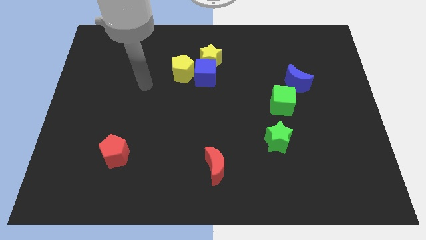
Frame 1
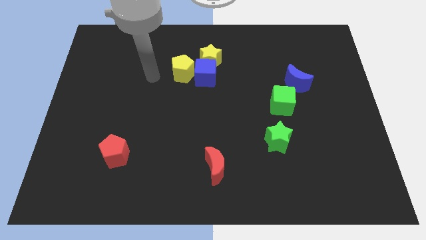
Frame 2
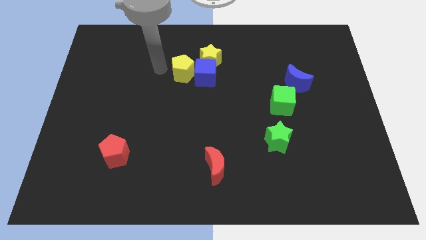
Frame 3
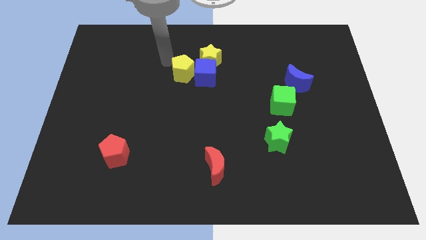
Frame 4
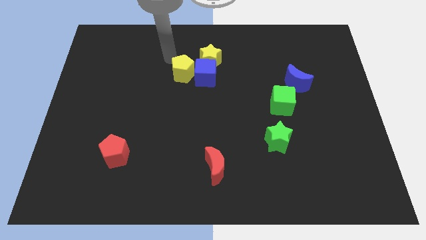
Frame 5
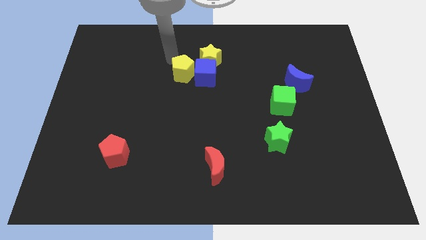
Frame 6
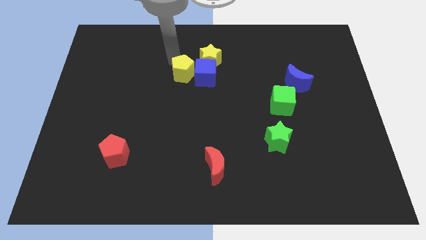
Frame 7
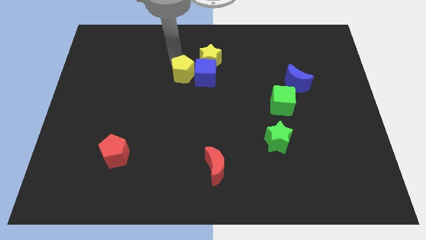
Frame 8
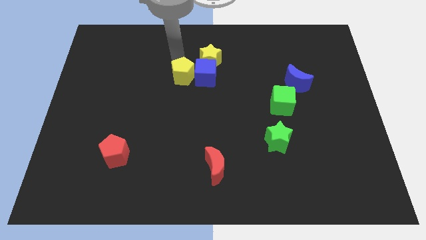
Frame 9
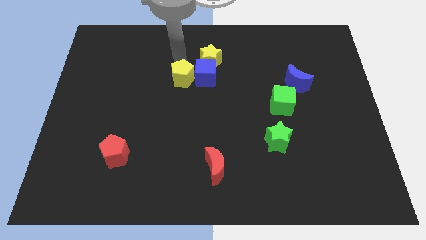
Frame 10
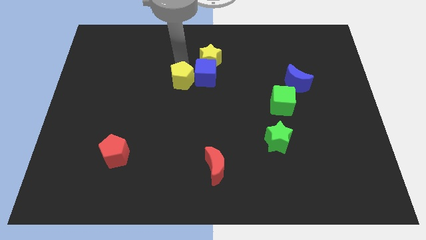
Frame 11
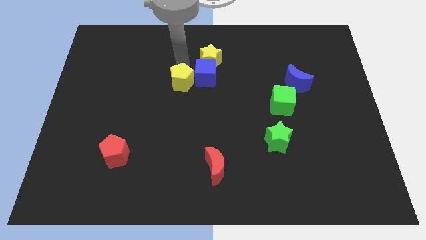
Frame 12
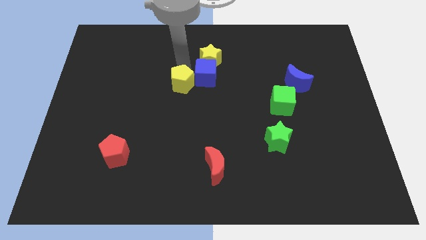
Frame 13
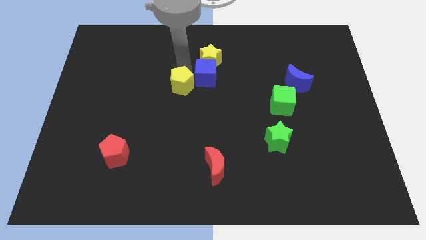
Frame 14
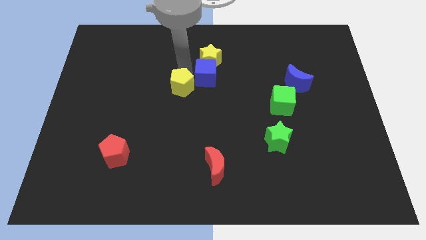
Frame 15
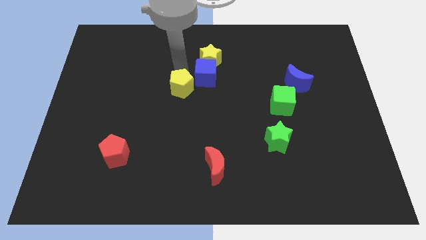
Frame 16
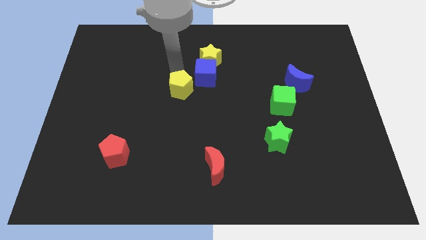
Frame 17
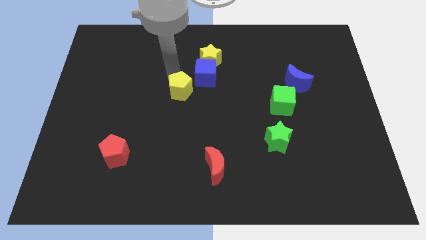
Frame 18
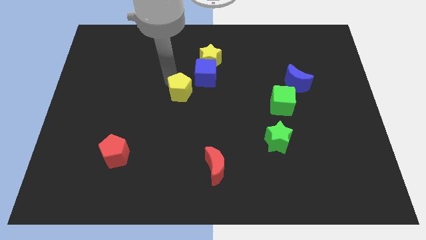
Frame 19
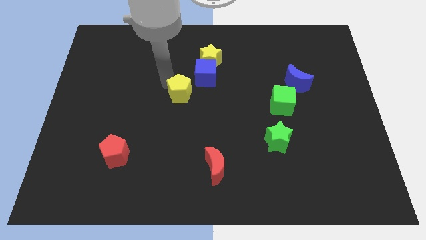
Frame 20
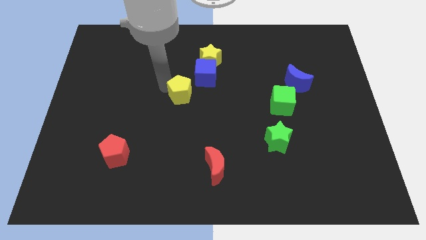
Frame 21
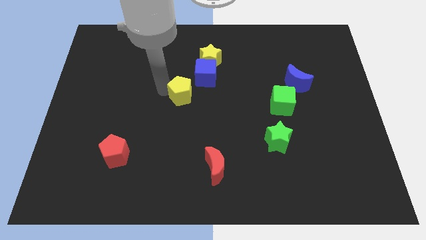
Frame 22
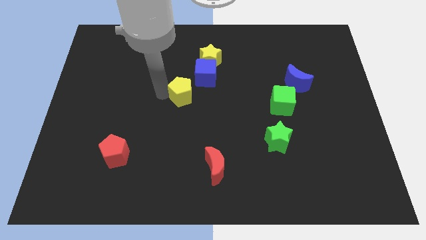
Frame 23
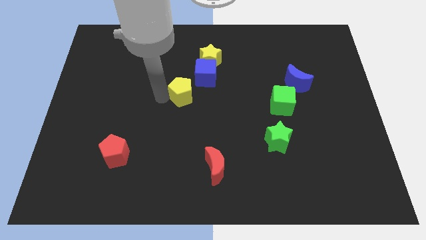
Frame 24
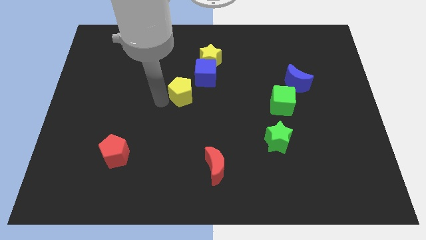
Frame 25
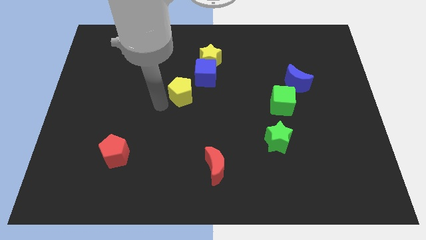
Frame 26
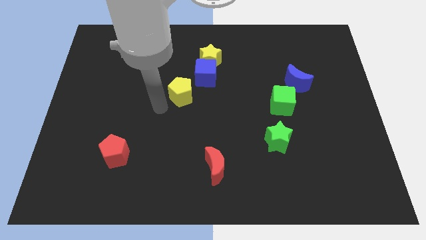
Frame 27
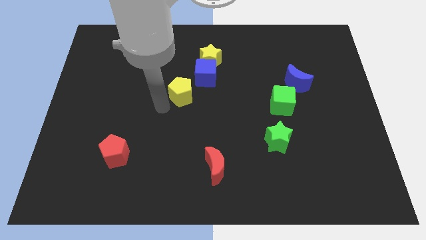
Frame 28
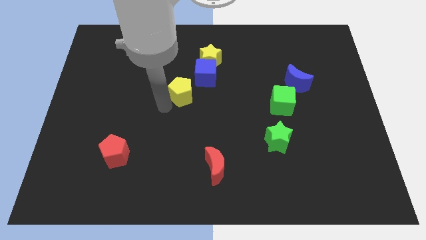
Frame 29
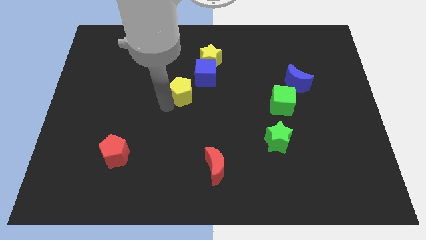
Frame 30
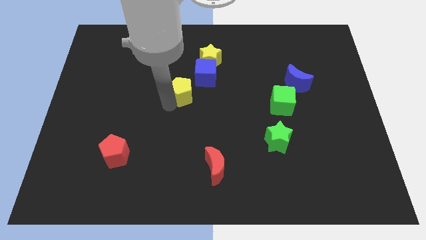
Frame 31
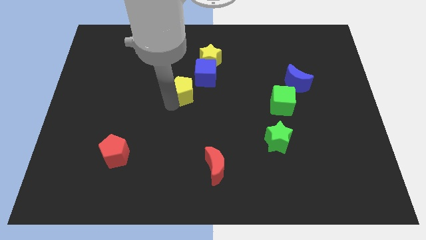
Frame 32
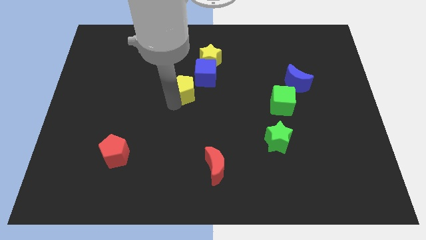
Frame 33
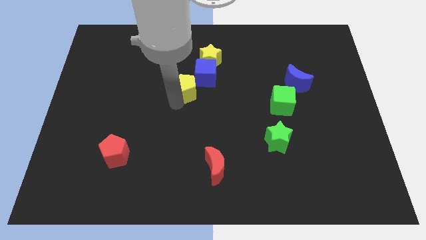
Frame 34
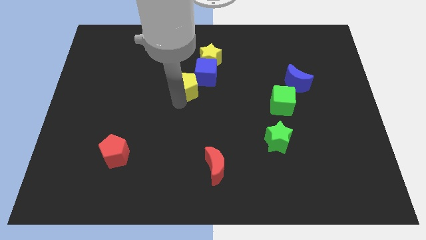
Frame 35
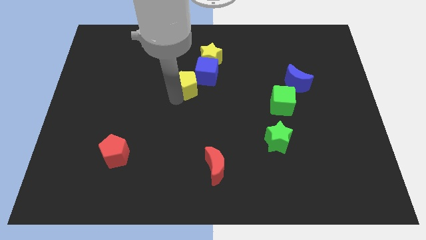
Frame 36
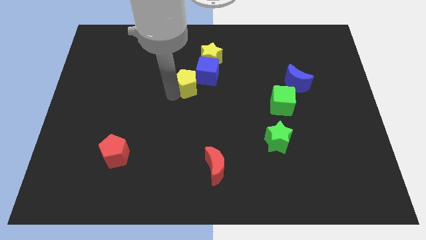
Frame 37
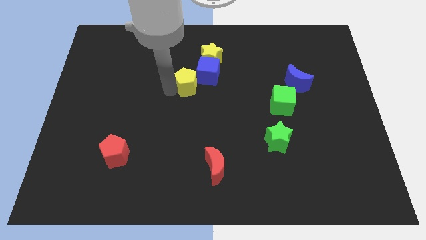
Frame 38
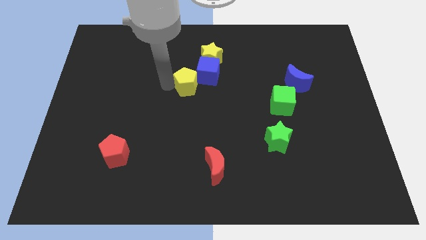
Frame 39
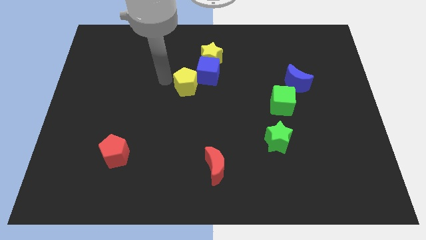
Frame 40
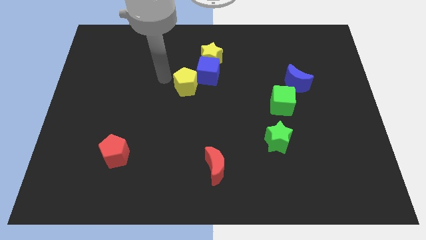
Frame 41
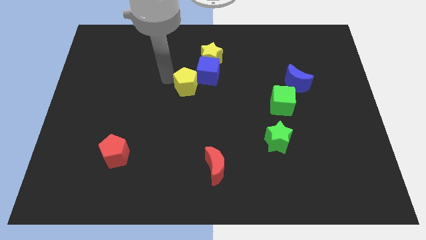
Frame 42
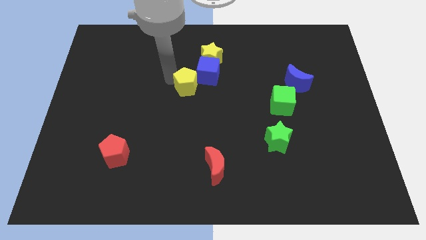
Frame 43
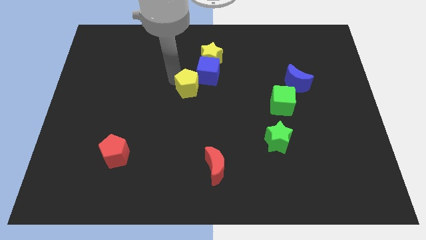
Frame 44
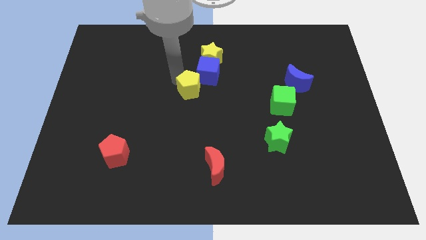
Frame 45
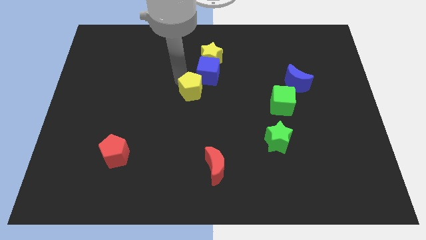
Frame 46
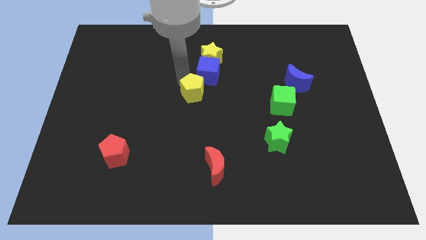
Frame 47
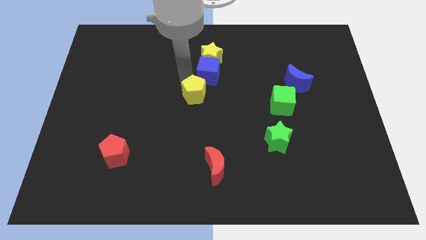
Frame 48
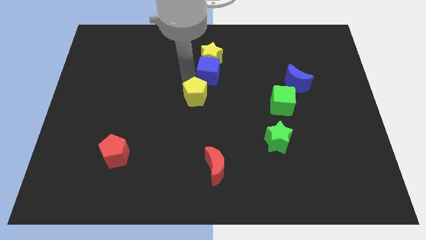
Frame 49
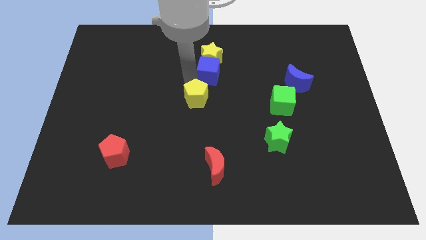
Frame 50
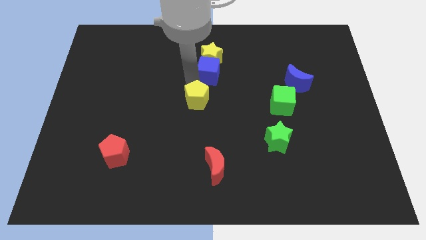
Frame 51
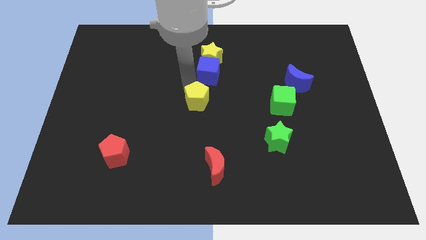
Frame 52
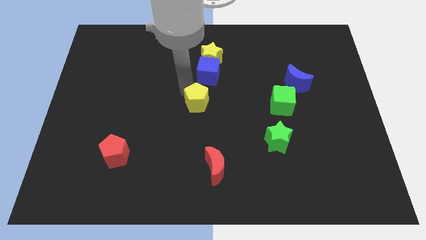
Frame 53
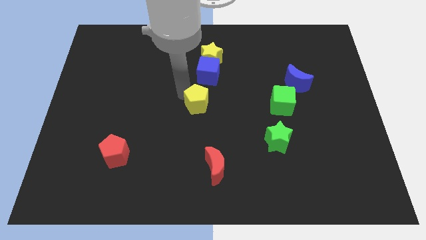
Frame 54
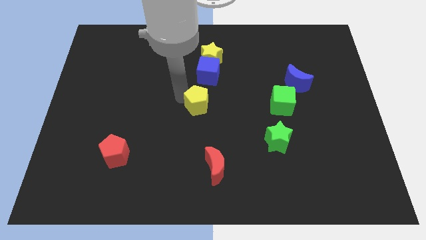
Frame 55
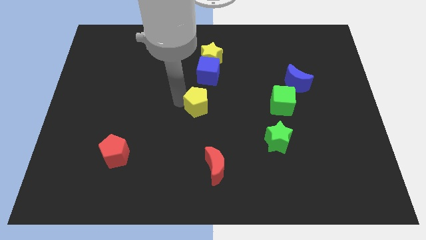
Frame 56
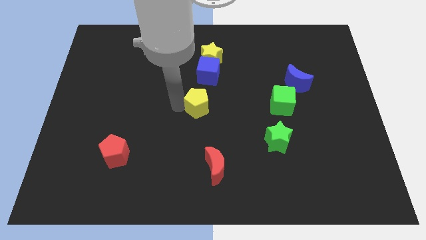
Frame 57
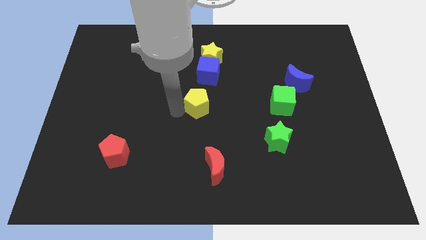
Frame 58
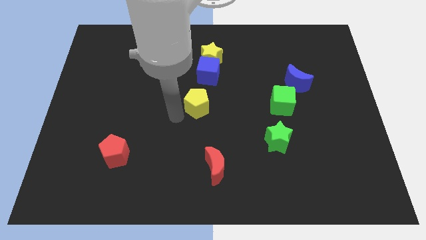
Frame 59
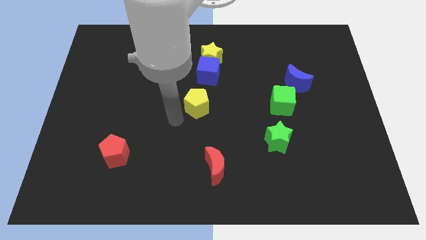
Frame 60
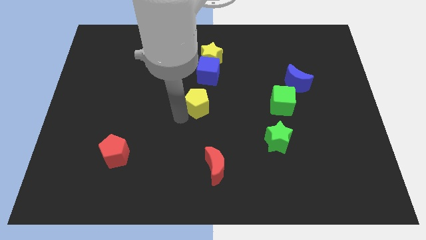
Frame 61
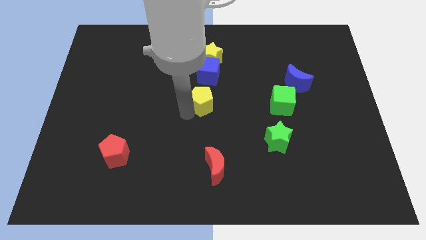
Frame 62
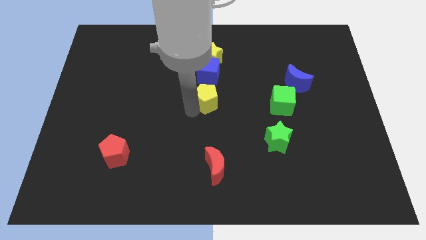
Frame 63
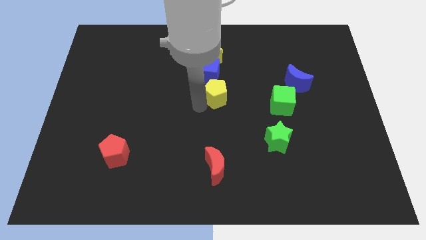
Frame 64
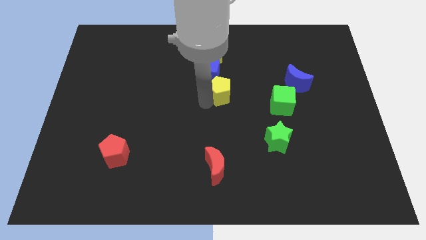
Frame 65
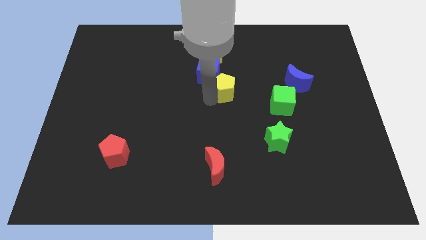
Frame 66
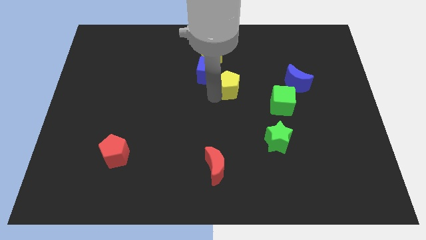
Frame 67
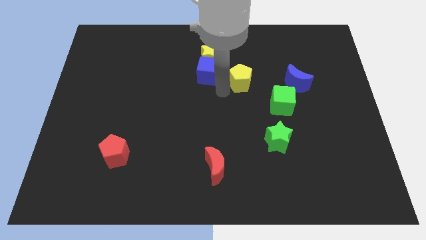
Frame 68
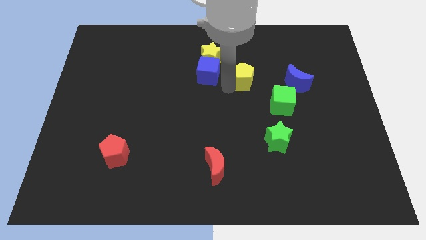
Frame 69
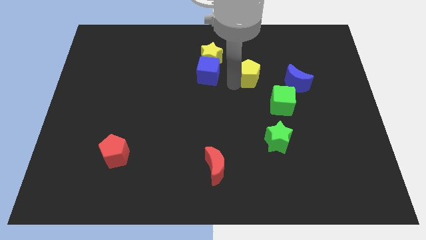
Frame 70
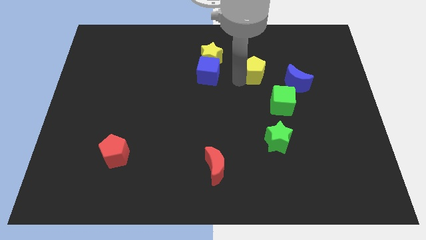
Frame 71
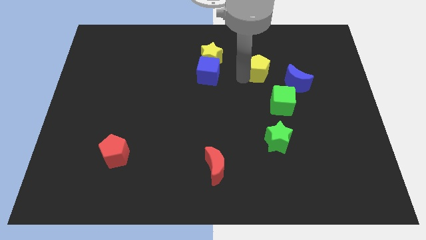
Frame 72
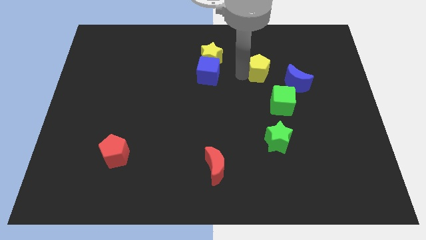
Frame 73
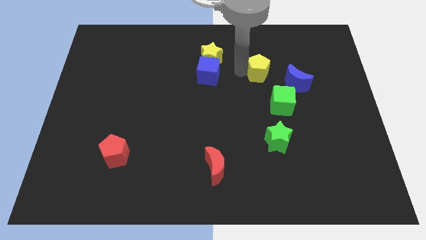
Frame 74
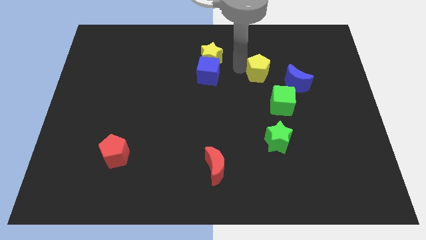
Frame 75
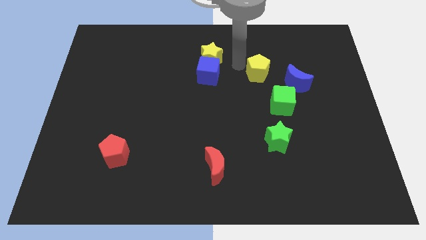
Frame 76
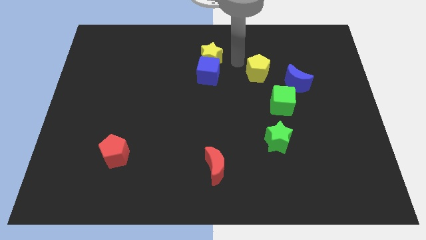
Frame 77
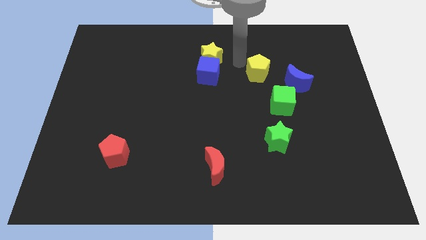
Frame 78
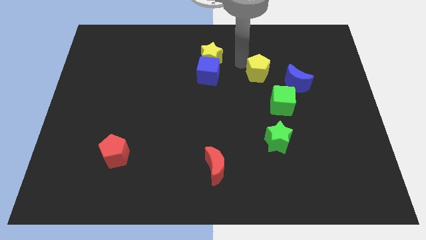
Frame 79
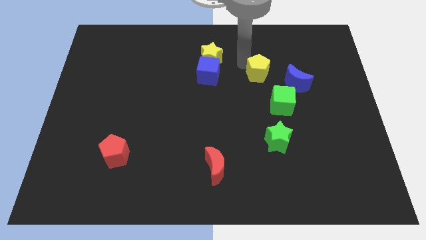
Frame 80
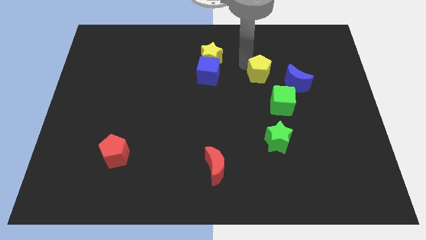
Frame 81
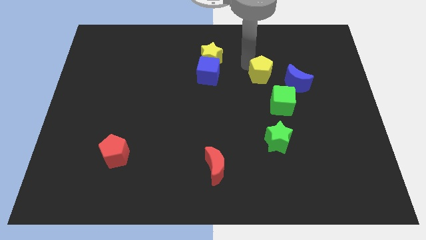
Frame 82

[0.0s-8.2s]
slide the yellow pentagon right

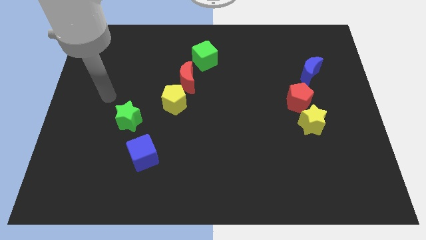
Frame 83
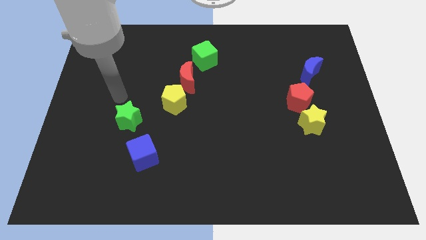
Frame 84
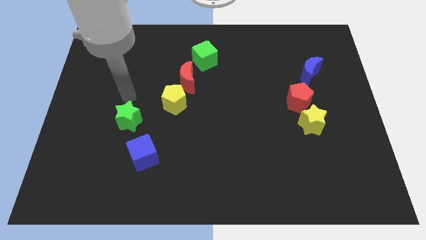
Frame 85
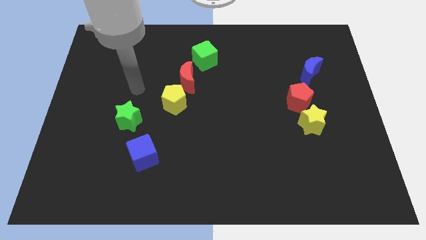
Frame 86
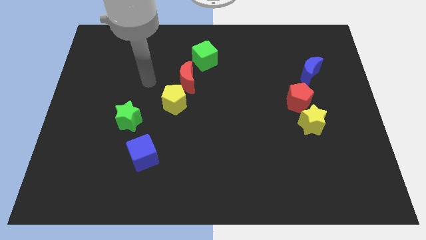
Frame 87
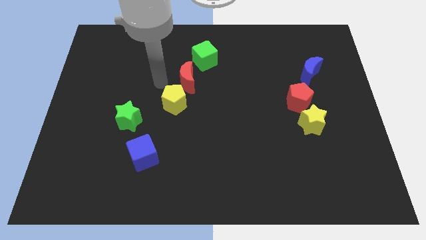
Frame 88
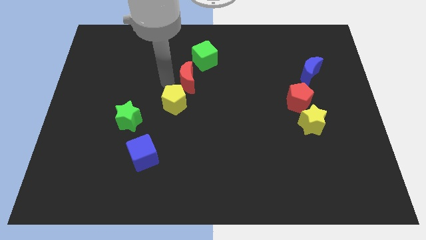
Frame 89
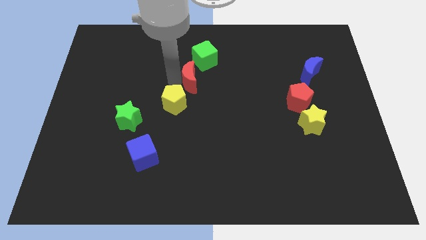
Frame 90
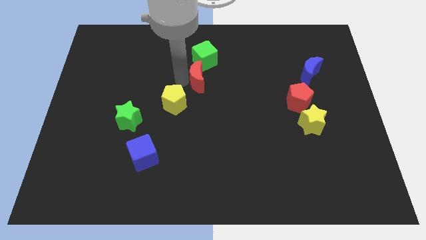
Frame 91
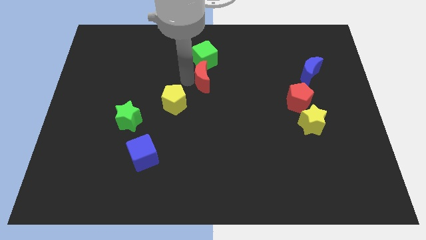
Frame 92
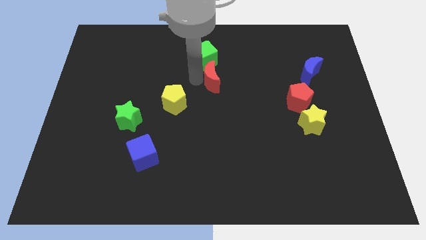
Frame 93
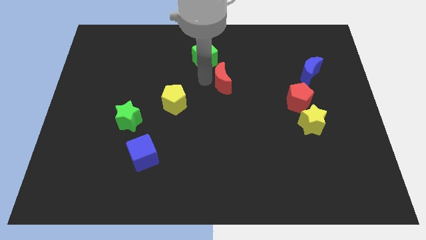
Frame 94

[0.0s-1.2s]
slightly slide the red moon right
